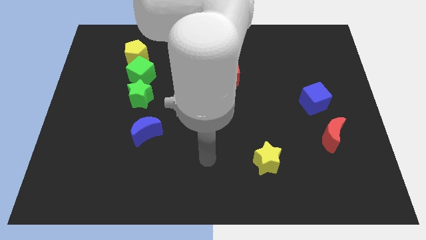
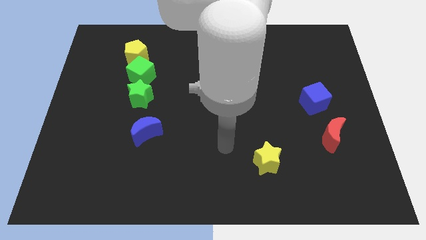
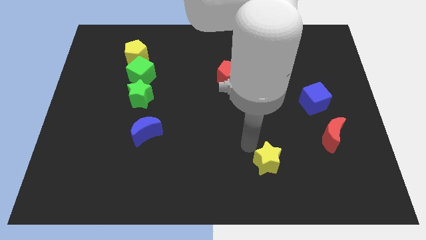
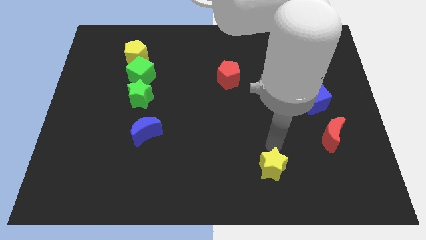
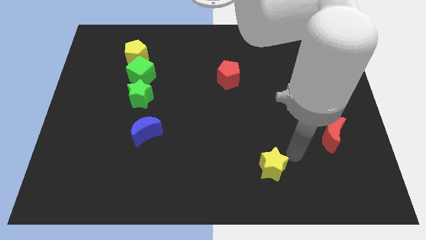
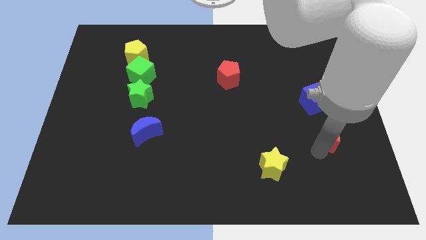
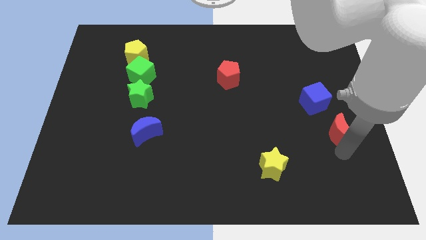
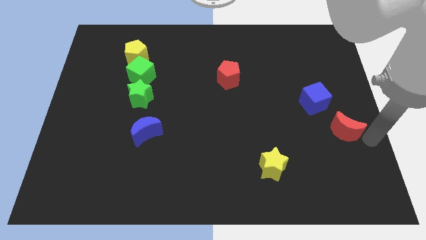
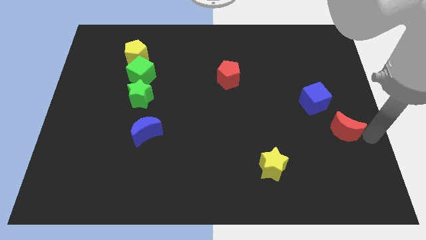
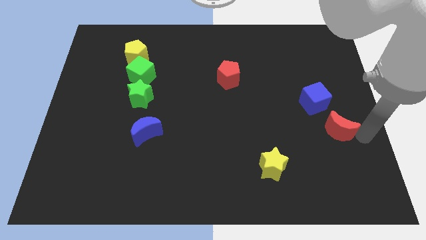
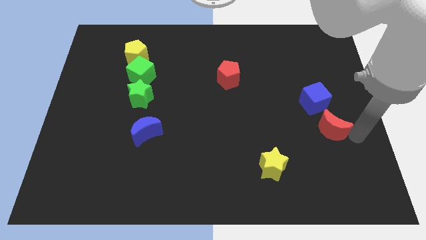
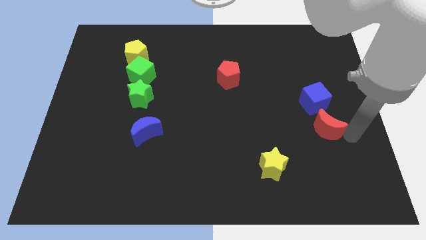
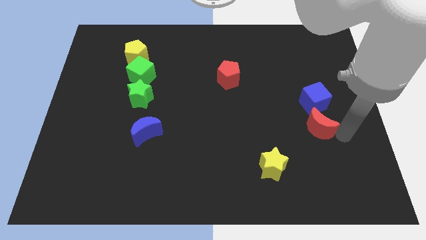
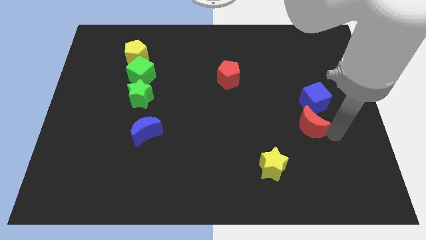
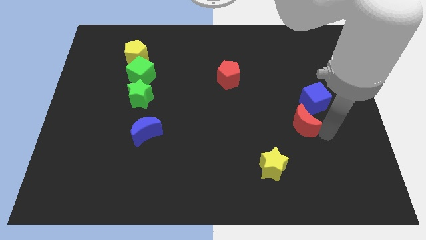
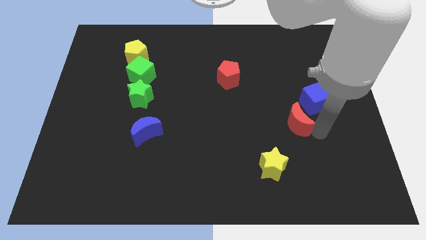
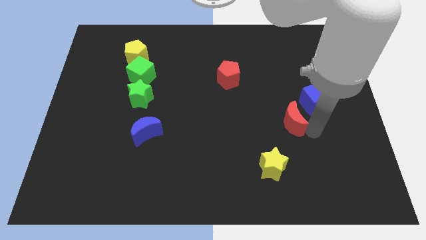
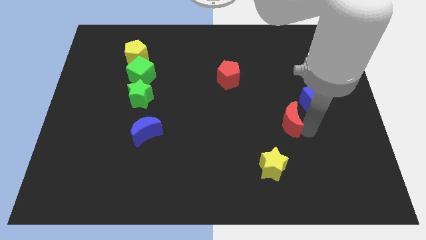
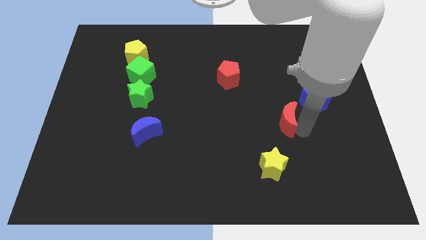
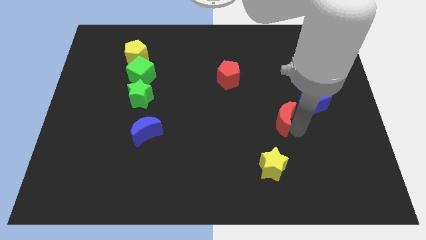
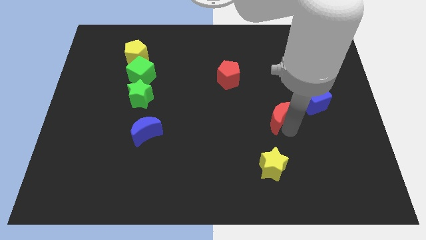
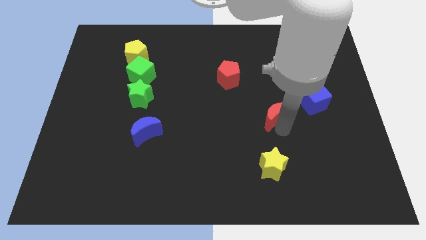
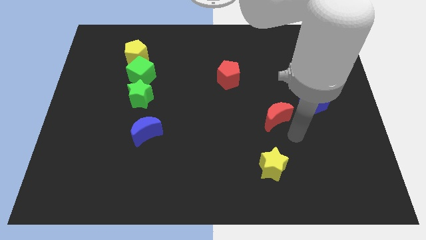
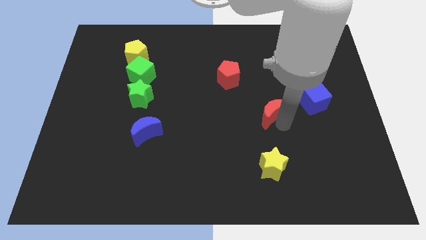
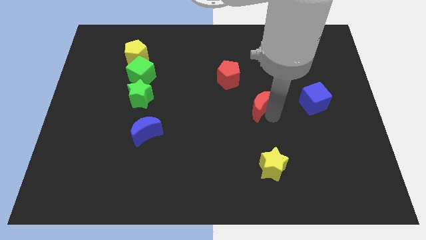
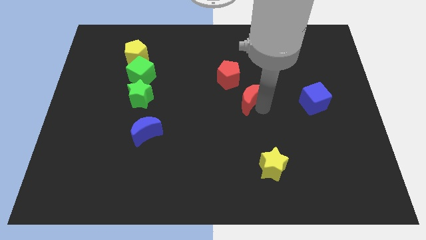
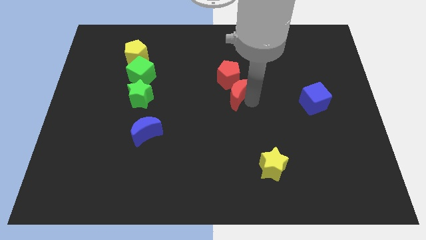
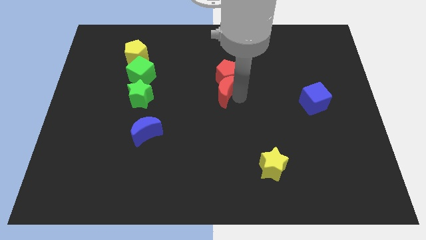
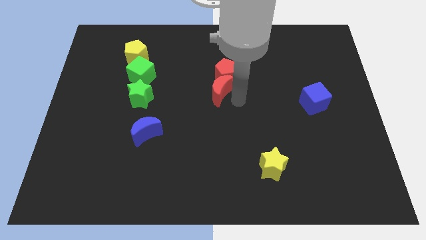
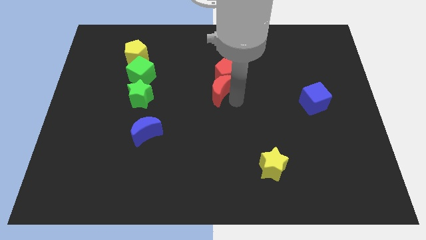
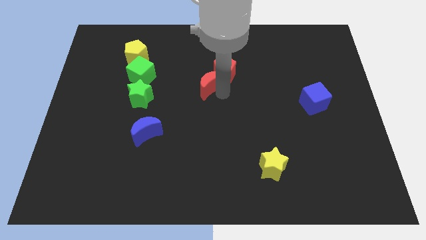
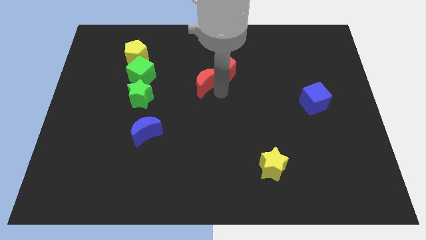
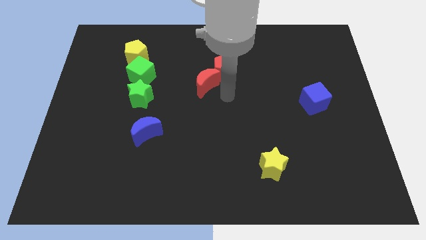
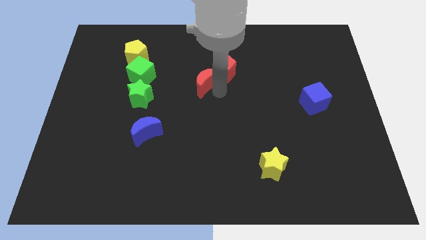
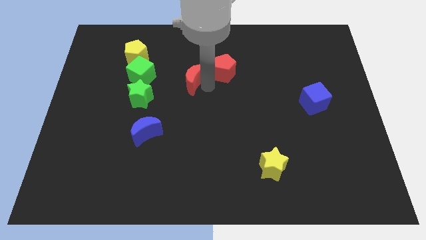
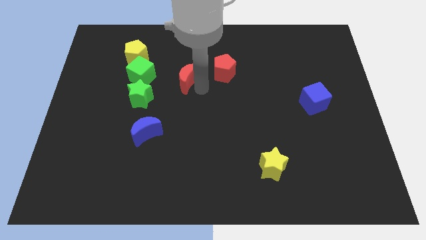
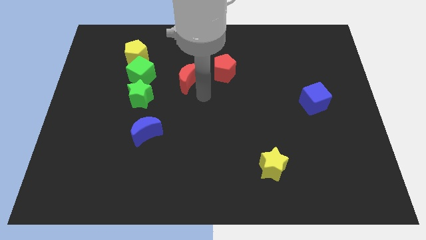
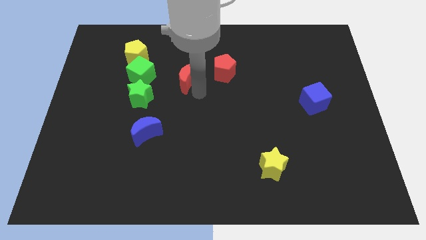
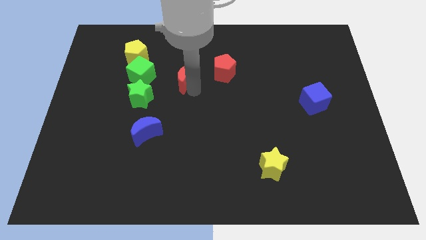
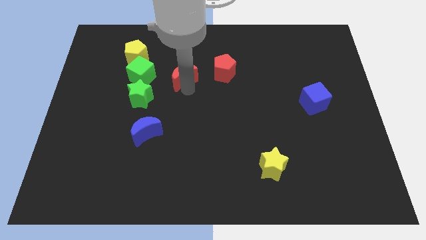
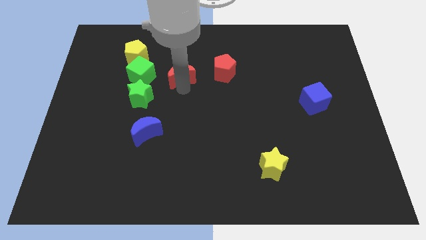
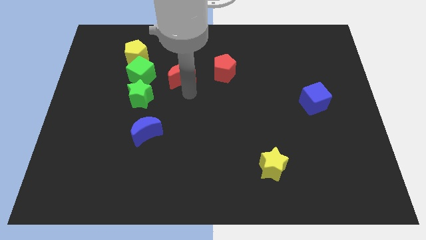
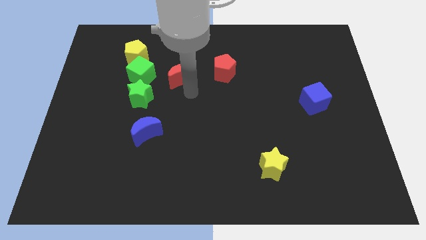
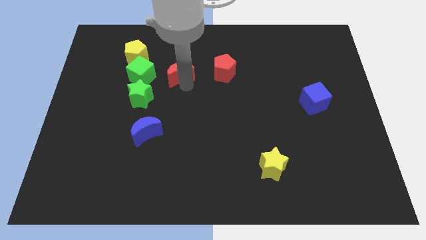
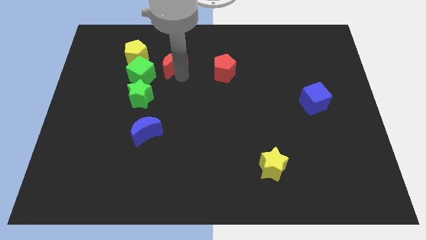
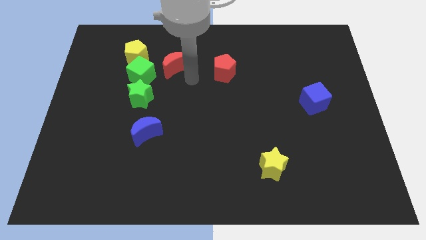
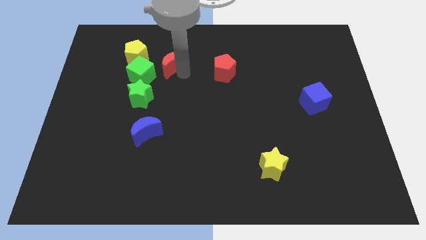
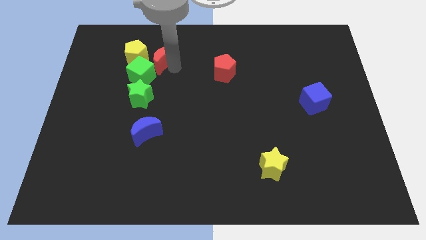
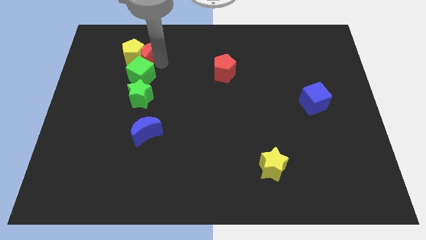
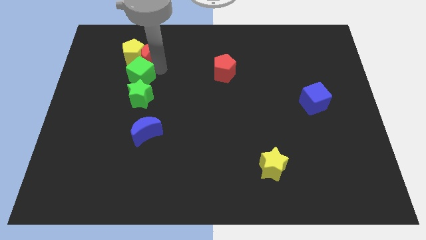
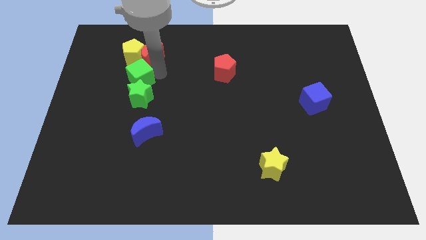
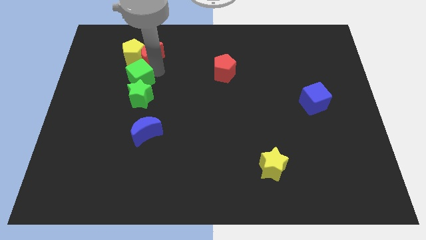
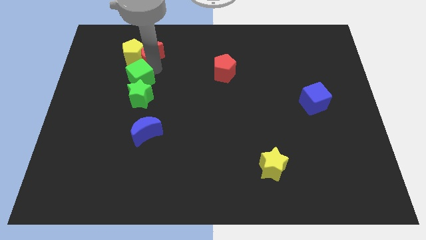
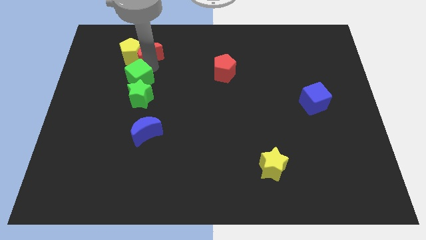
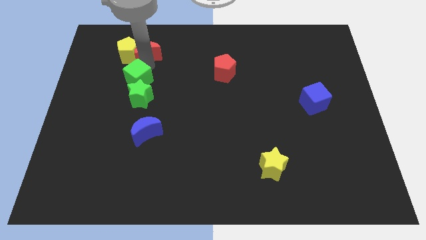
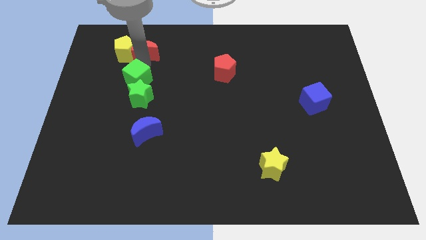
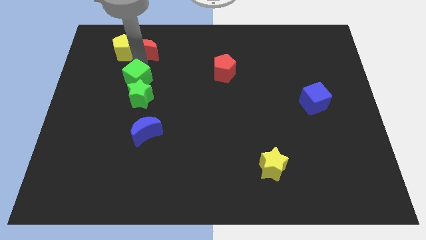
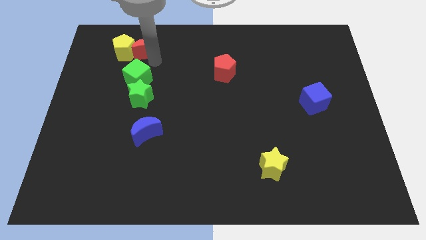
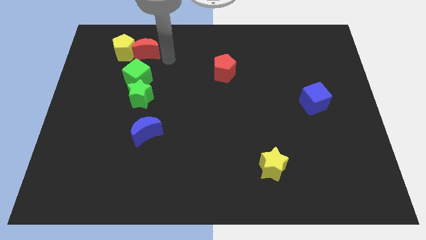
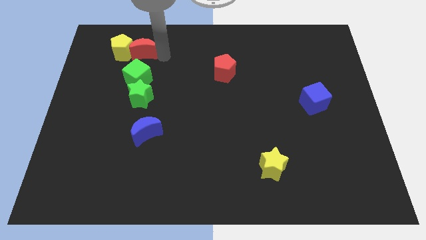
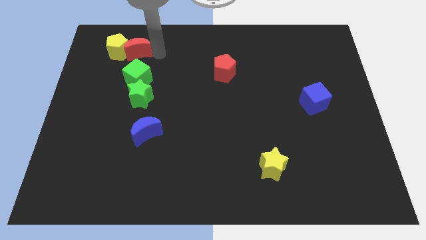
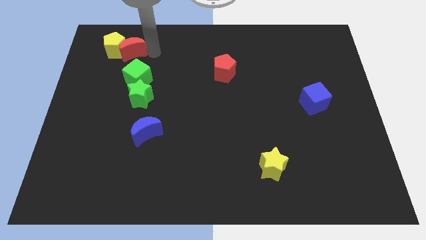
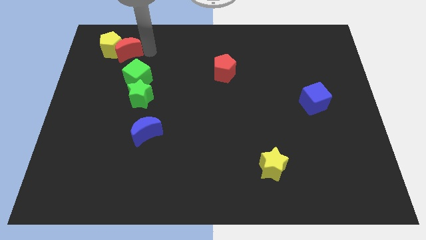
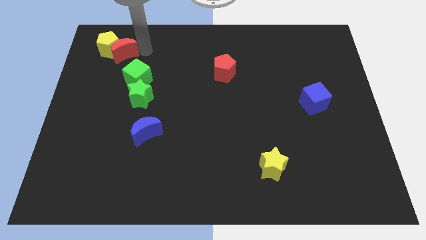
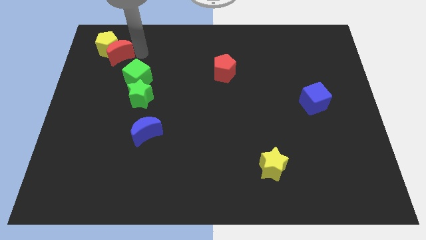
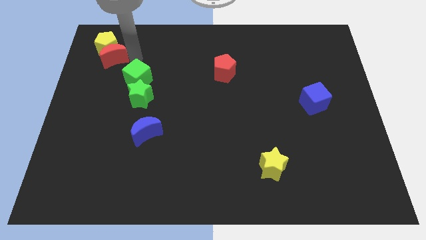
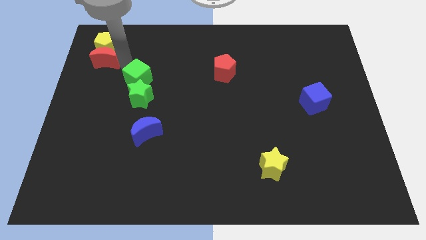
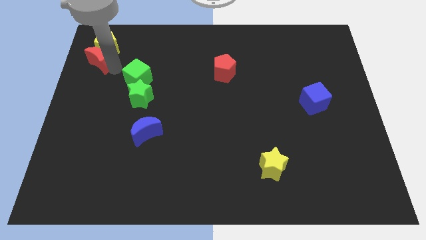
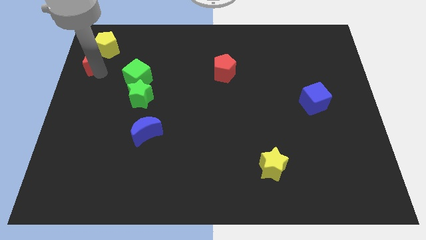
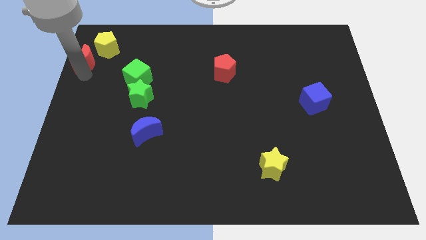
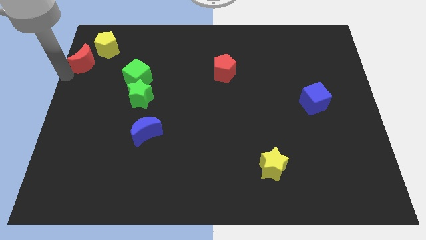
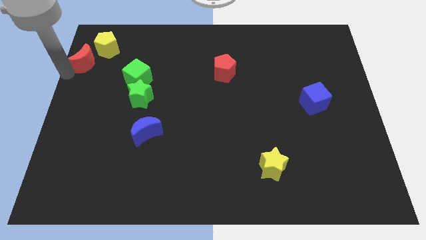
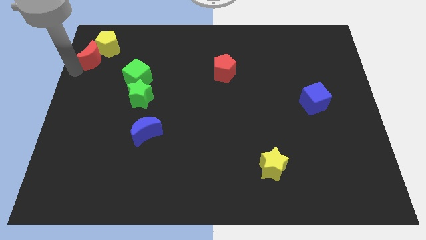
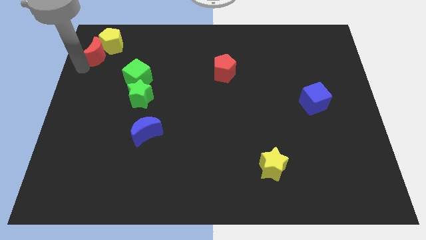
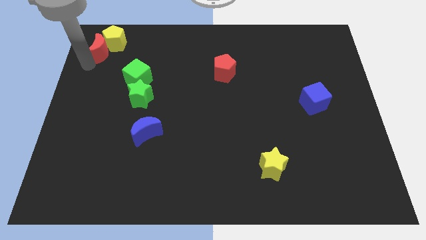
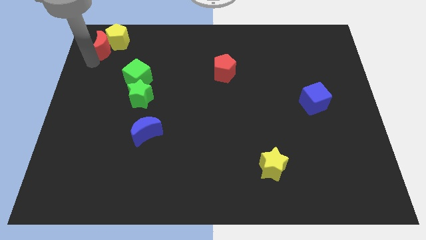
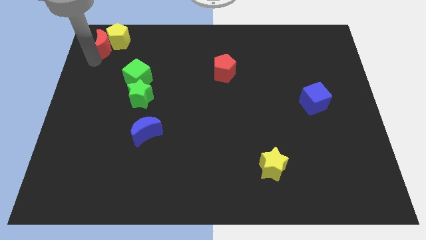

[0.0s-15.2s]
push the red moon to the top left corner
